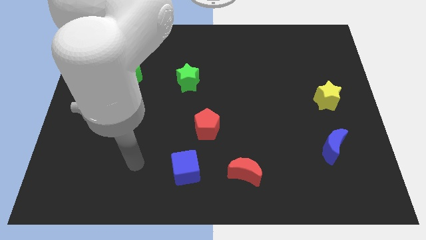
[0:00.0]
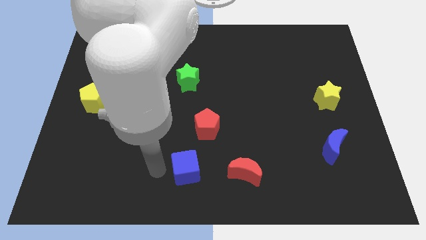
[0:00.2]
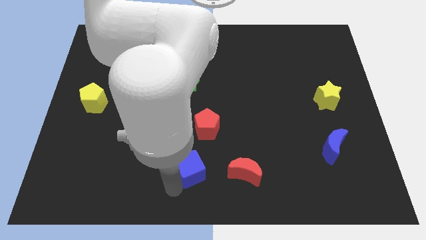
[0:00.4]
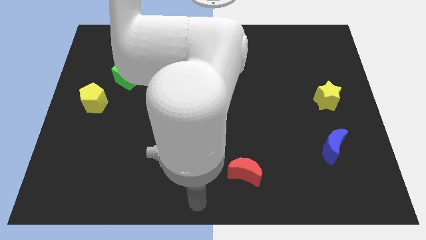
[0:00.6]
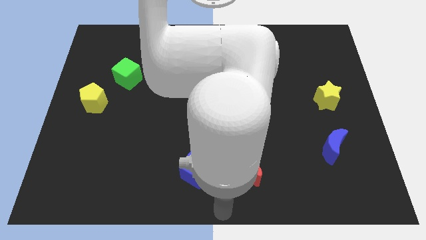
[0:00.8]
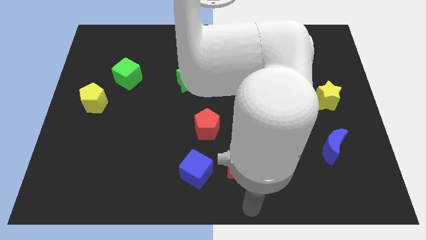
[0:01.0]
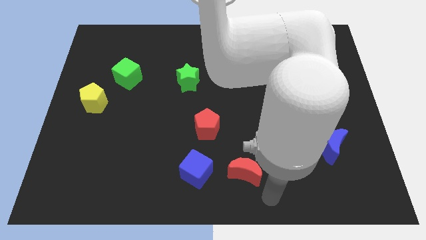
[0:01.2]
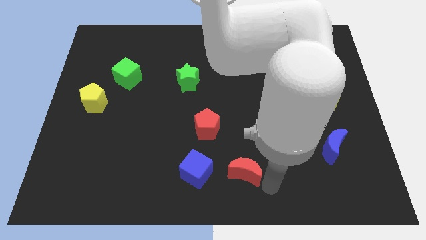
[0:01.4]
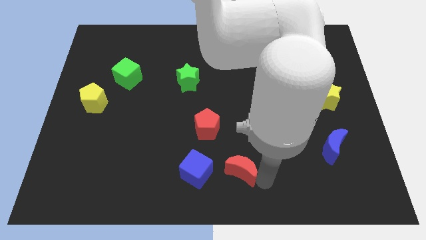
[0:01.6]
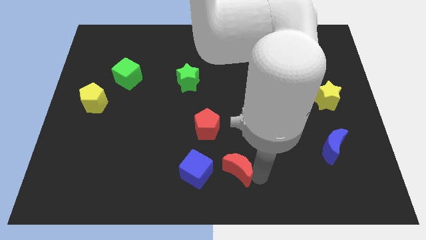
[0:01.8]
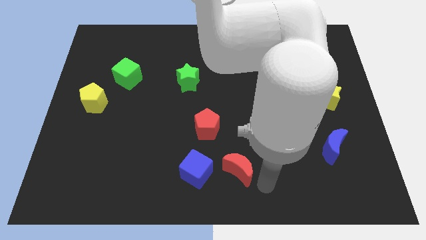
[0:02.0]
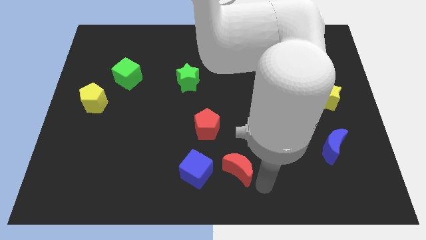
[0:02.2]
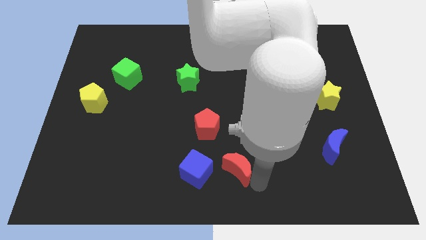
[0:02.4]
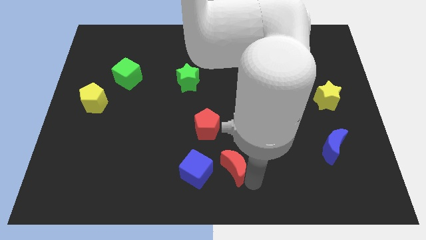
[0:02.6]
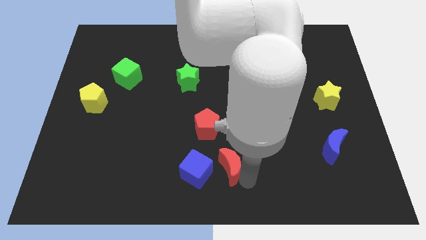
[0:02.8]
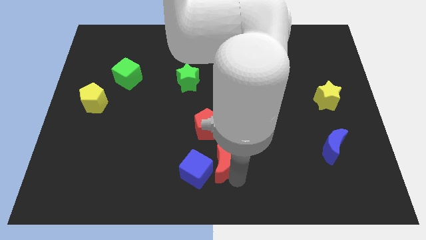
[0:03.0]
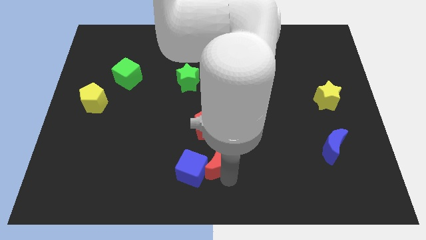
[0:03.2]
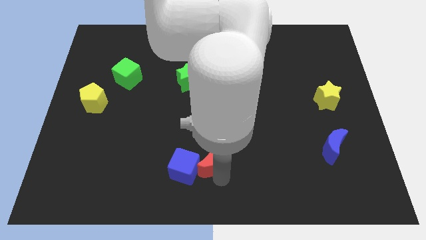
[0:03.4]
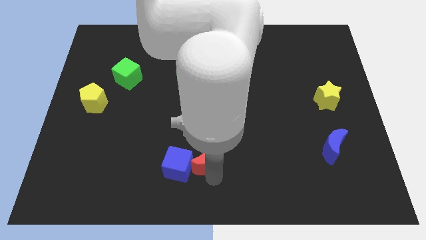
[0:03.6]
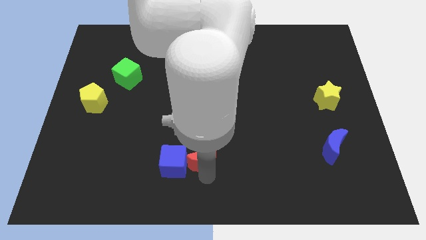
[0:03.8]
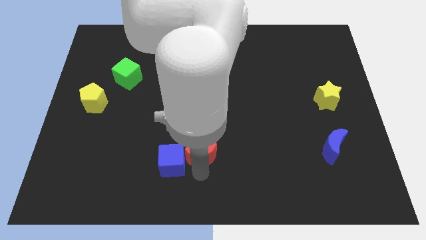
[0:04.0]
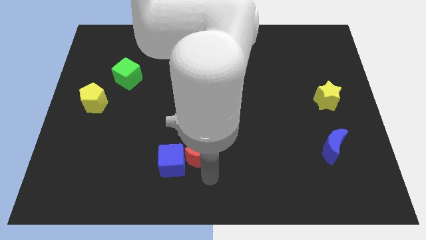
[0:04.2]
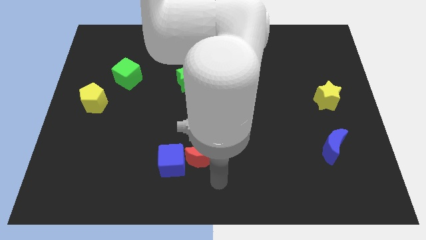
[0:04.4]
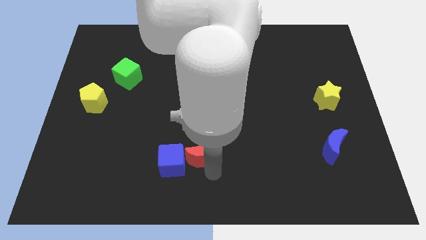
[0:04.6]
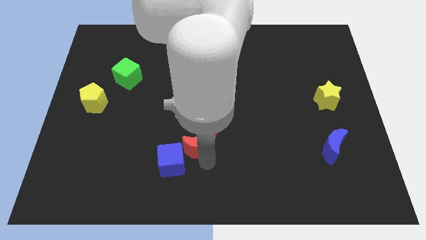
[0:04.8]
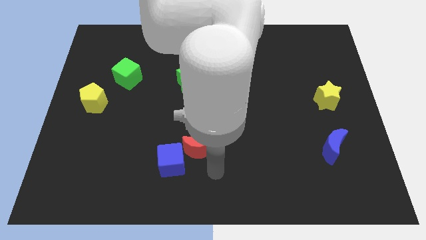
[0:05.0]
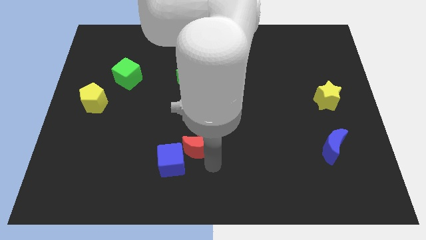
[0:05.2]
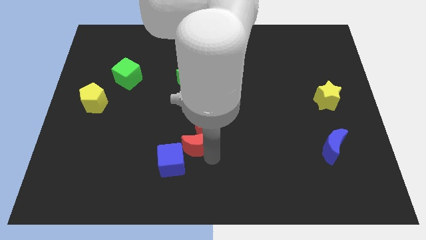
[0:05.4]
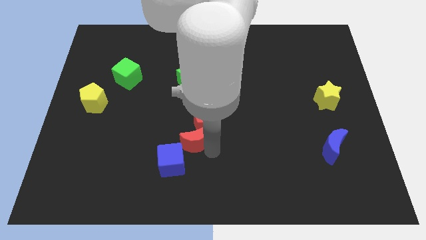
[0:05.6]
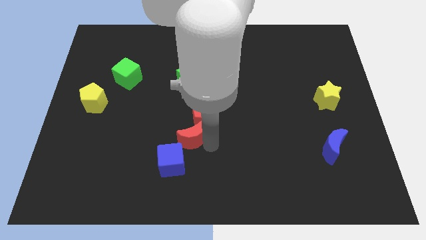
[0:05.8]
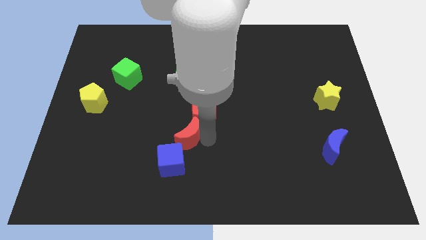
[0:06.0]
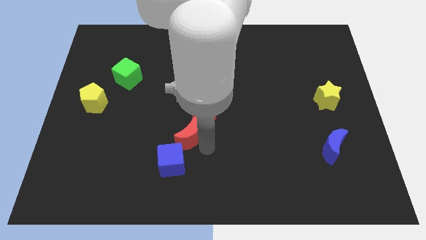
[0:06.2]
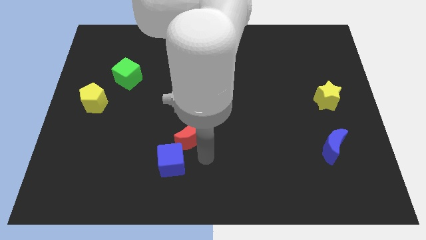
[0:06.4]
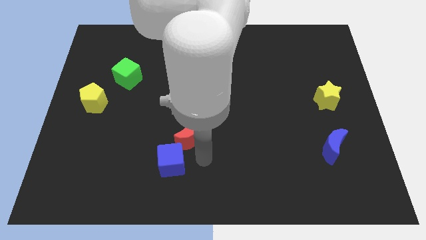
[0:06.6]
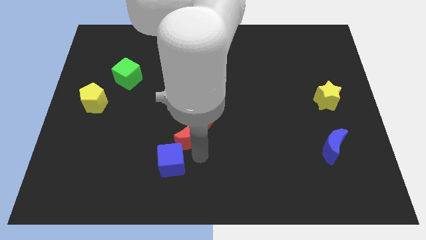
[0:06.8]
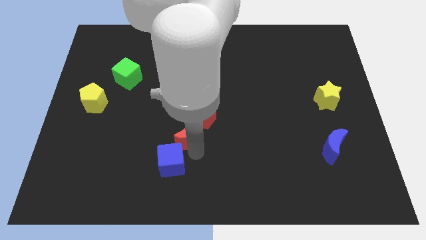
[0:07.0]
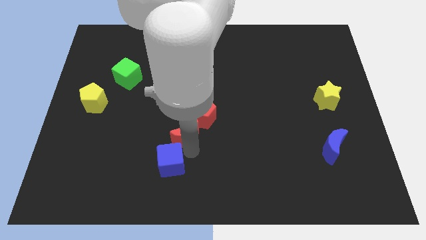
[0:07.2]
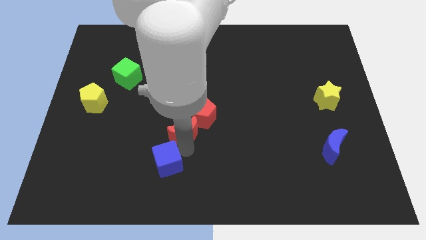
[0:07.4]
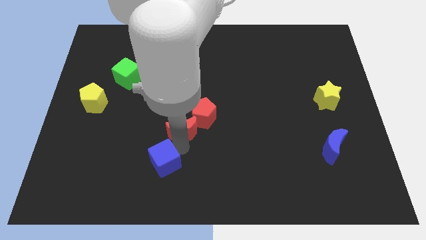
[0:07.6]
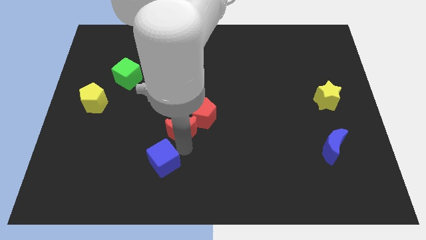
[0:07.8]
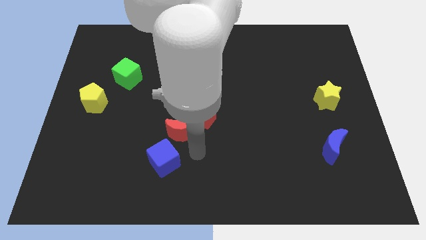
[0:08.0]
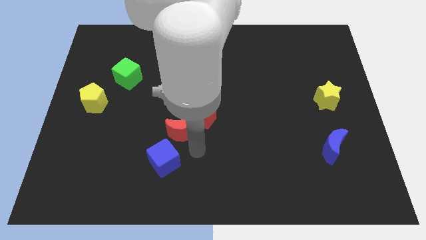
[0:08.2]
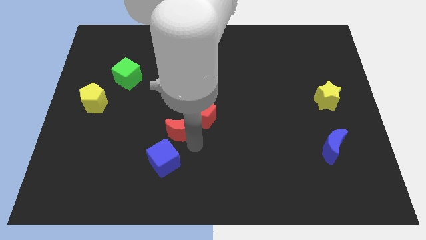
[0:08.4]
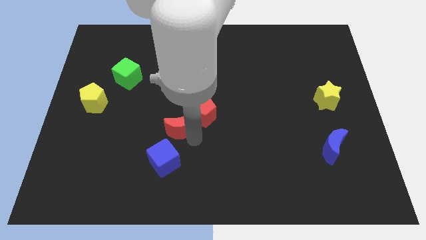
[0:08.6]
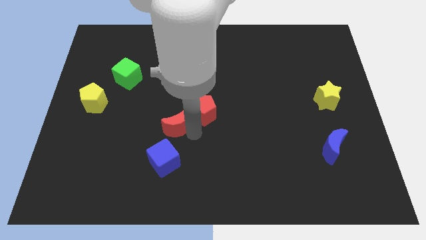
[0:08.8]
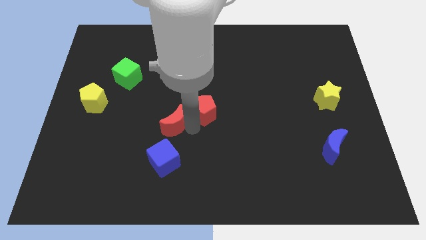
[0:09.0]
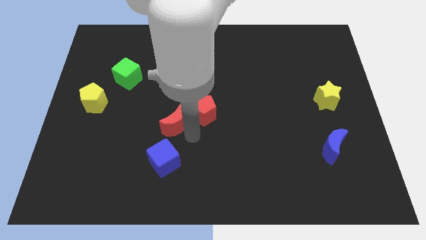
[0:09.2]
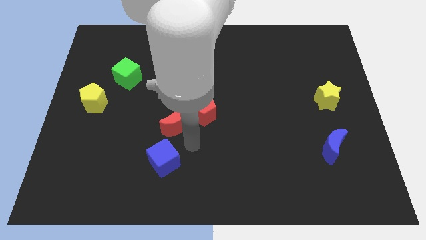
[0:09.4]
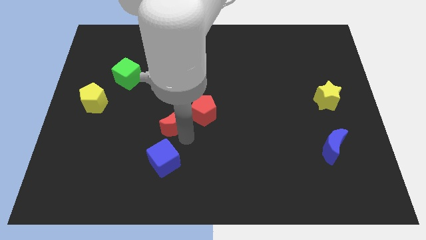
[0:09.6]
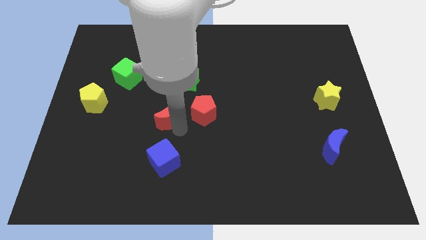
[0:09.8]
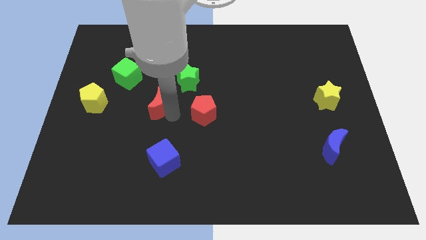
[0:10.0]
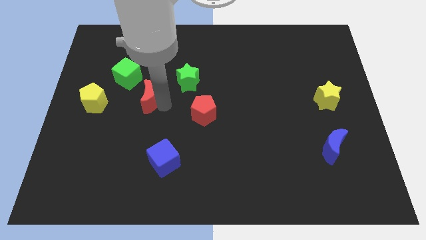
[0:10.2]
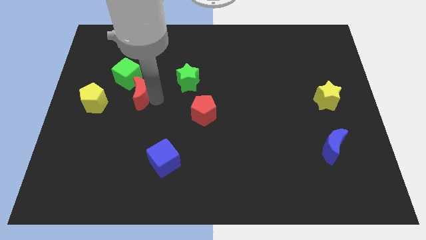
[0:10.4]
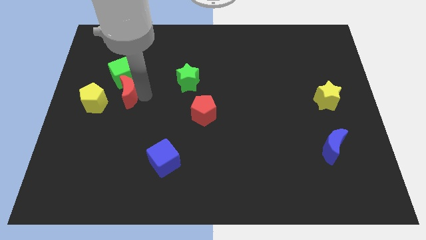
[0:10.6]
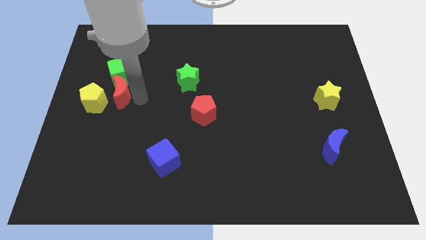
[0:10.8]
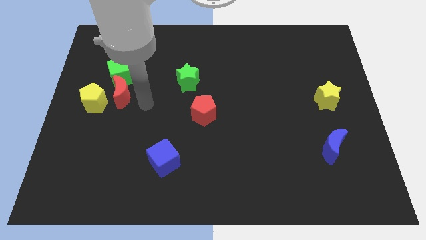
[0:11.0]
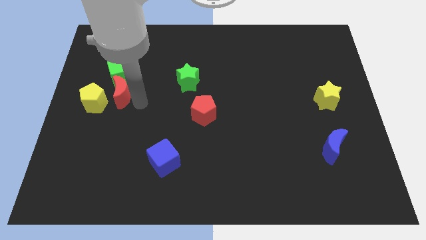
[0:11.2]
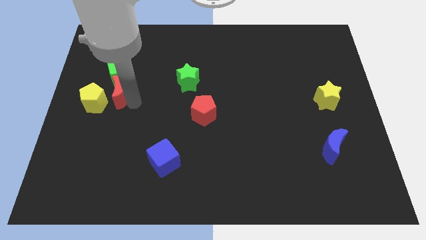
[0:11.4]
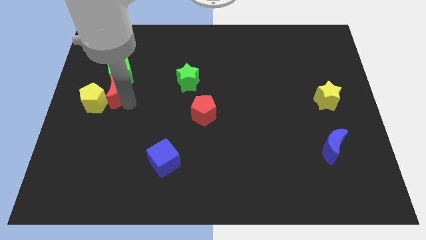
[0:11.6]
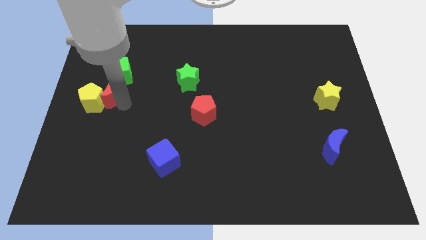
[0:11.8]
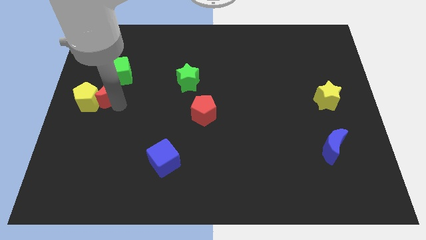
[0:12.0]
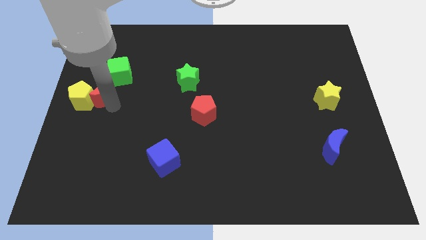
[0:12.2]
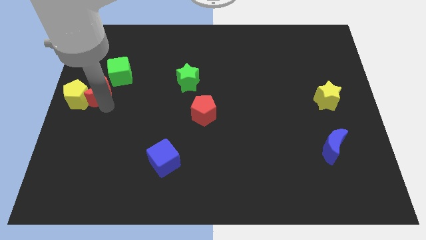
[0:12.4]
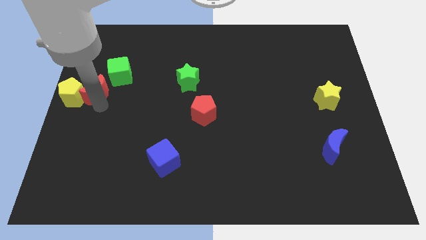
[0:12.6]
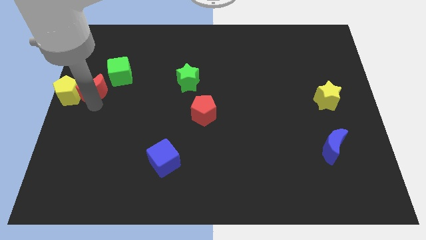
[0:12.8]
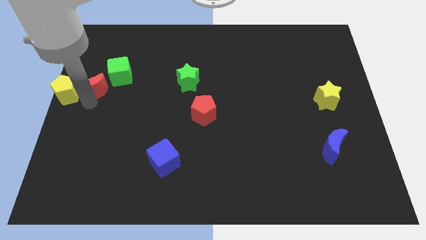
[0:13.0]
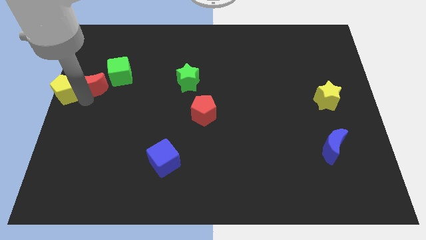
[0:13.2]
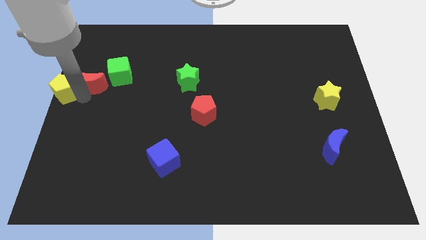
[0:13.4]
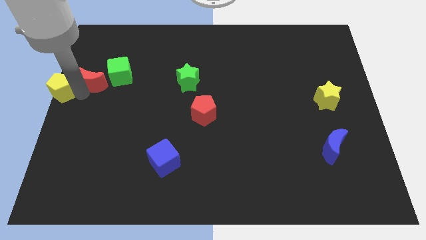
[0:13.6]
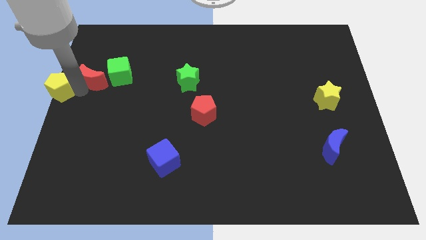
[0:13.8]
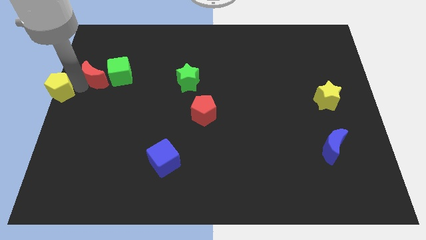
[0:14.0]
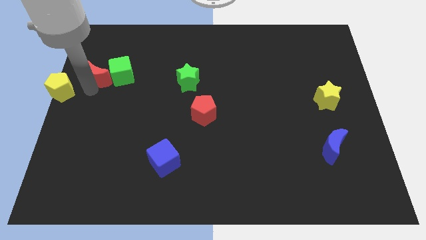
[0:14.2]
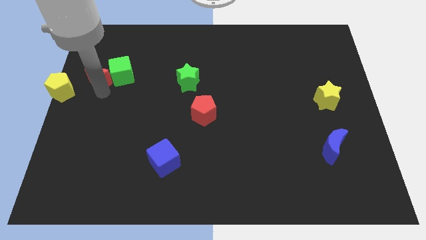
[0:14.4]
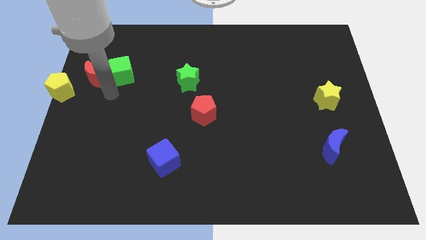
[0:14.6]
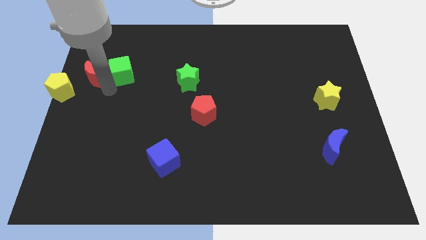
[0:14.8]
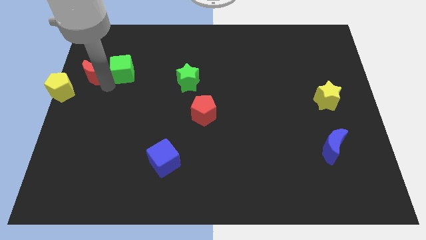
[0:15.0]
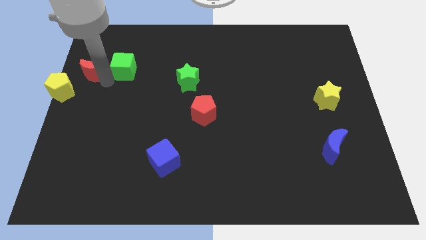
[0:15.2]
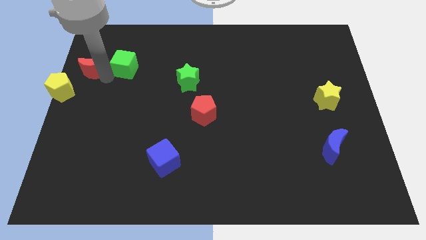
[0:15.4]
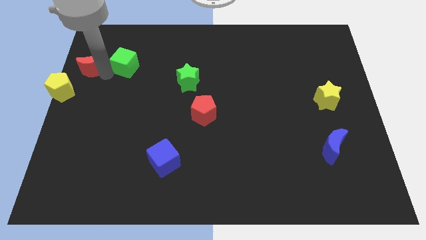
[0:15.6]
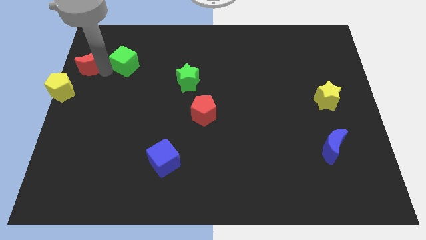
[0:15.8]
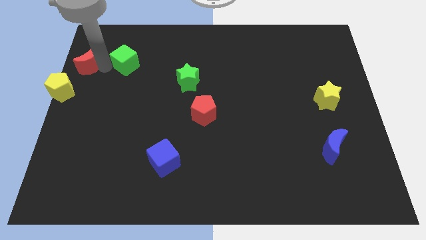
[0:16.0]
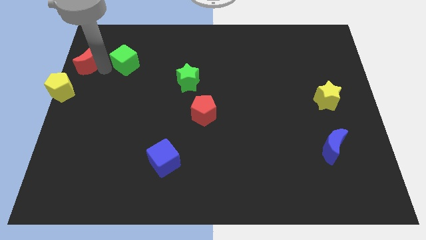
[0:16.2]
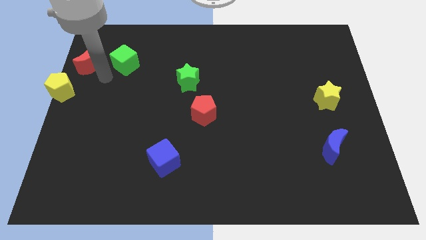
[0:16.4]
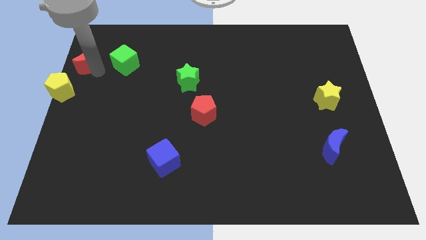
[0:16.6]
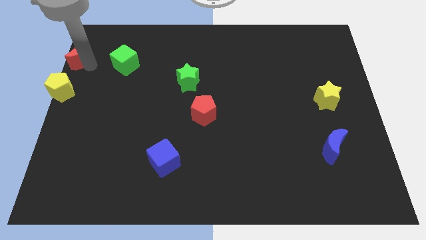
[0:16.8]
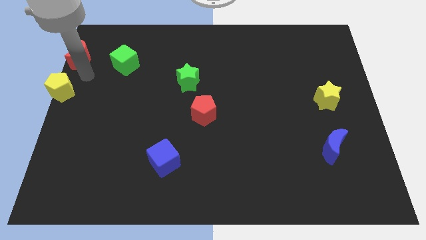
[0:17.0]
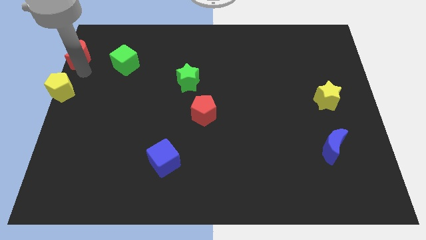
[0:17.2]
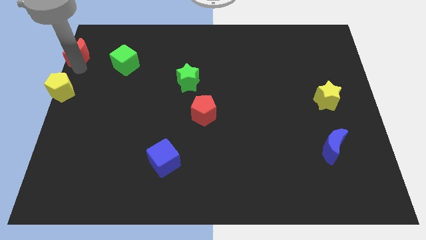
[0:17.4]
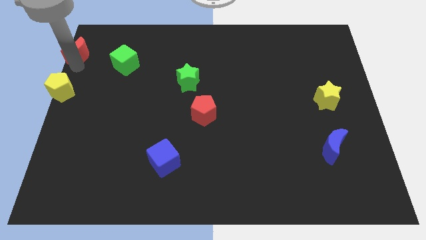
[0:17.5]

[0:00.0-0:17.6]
slide the red moon to the top left
